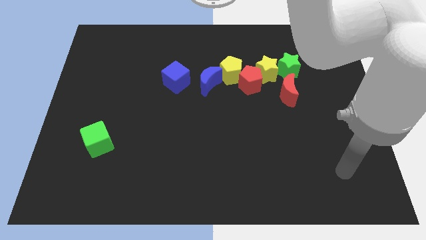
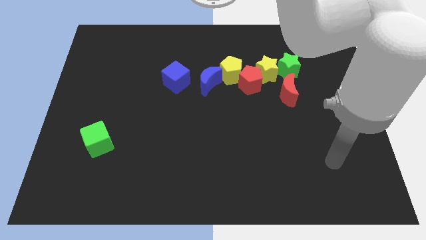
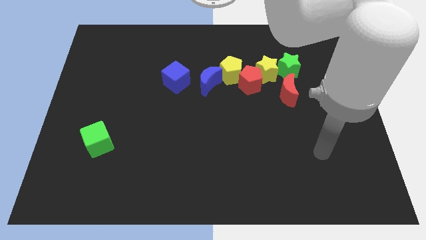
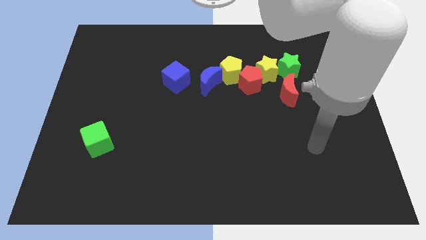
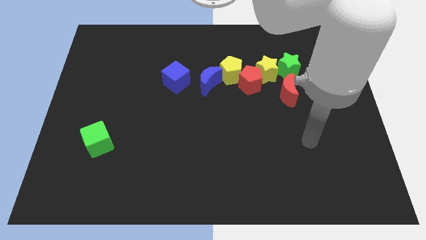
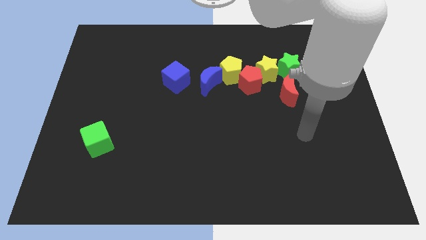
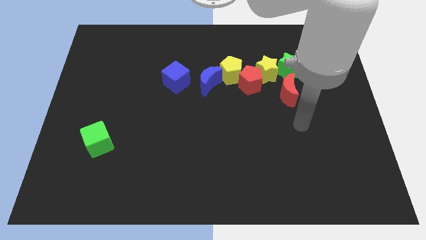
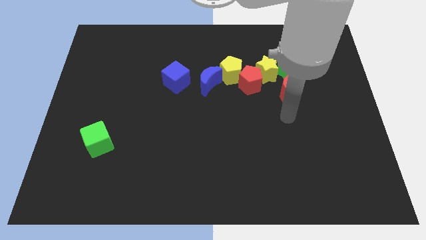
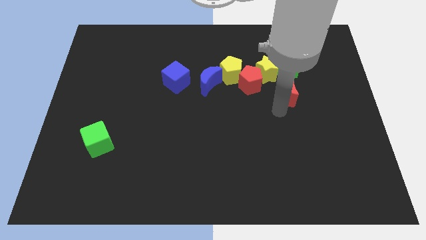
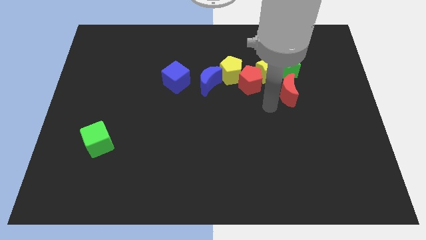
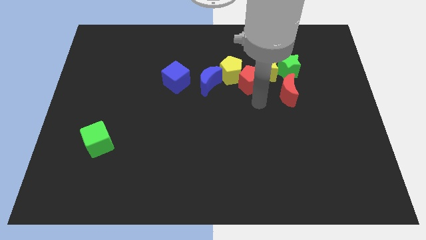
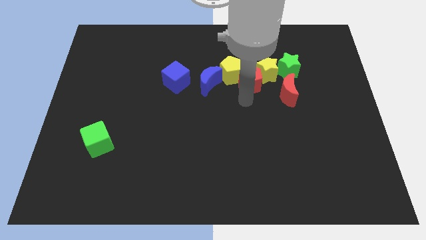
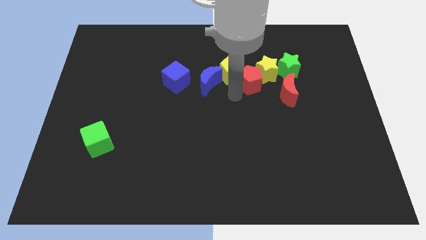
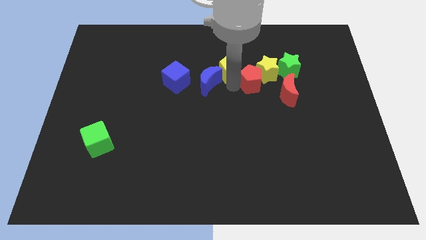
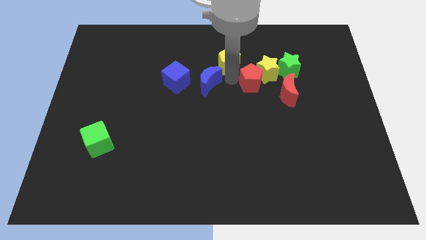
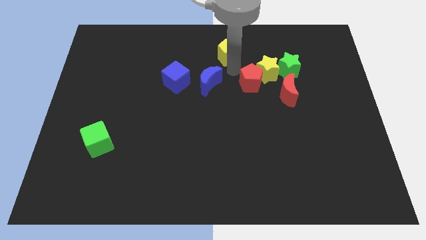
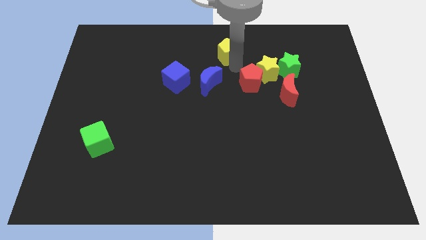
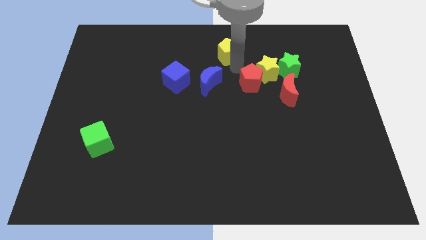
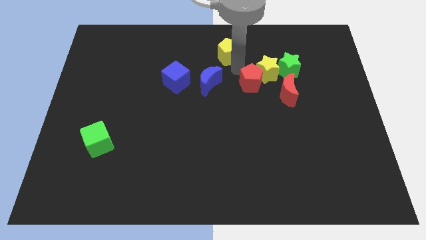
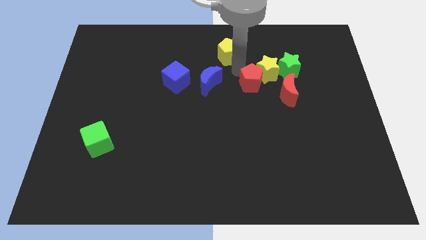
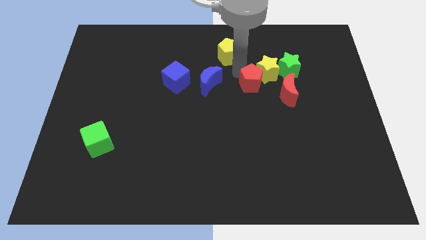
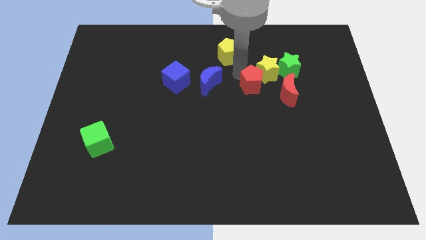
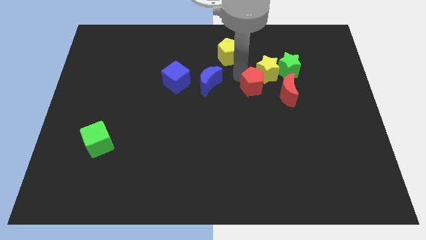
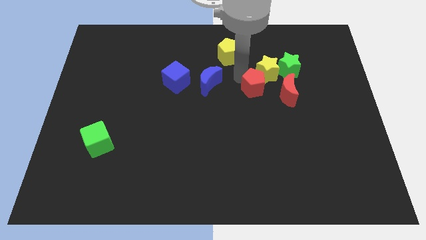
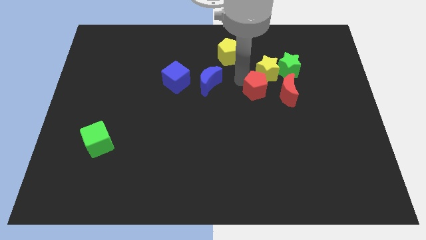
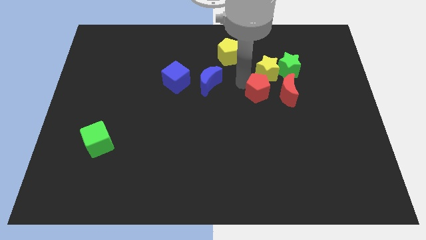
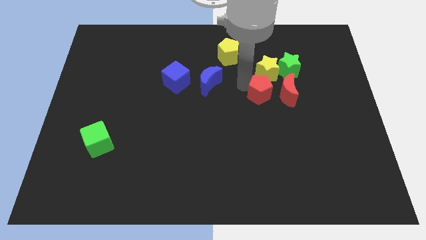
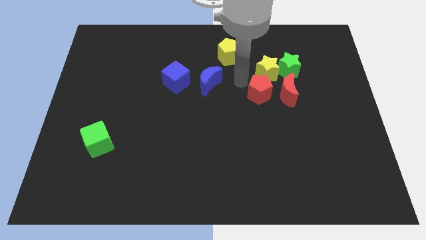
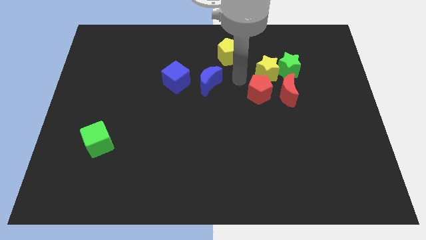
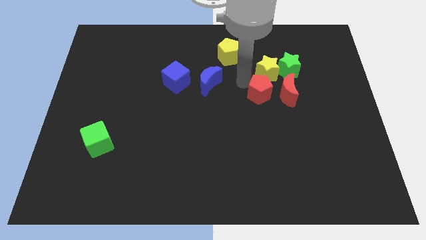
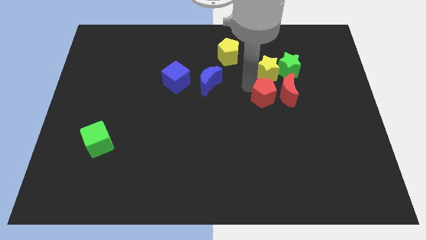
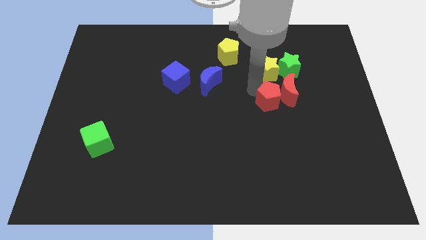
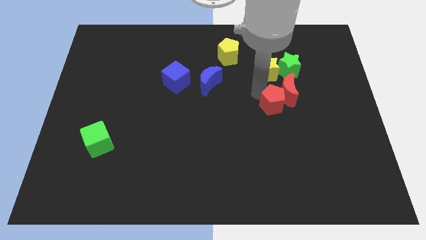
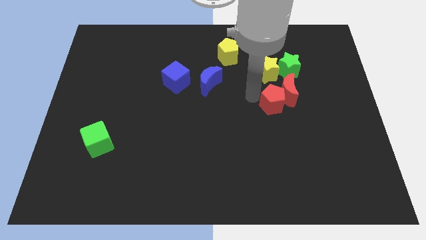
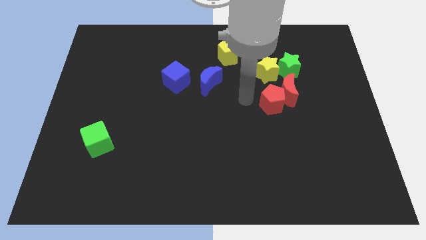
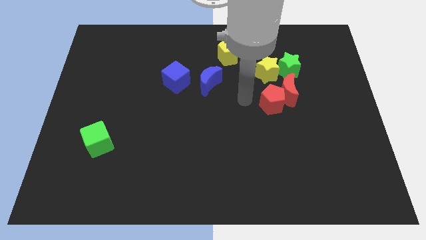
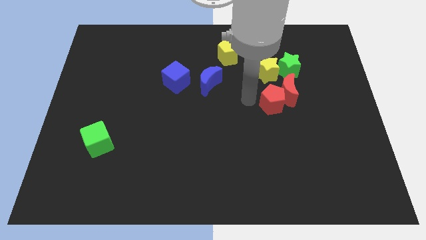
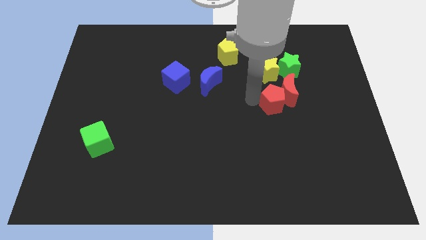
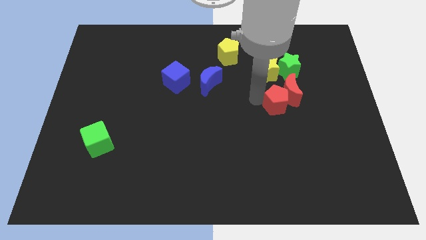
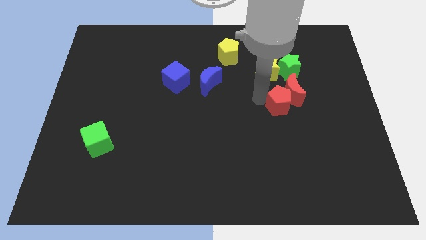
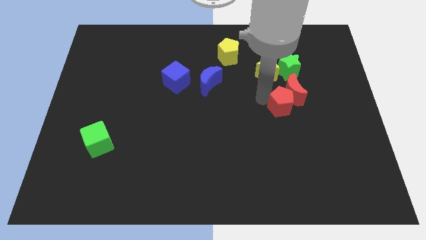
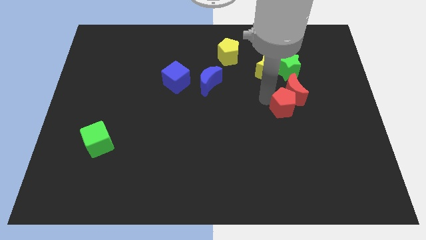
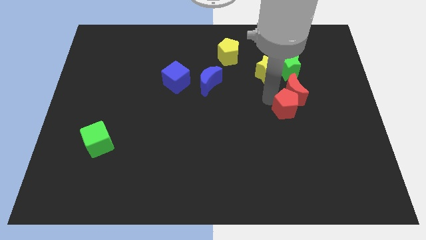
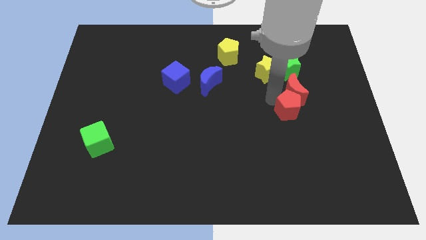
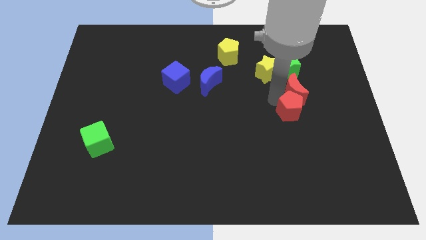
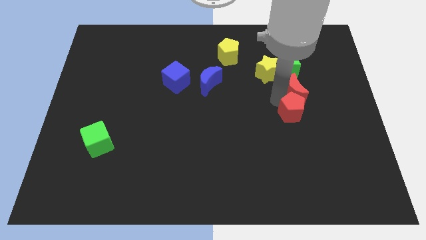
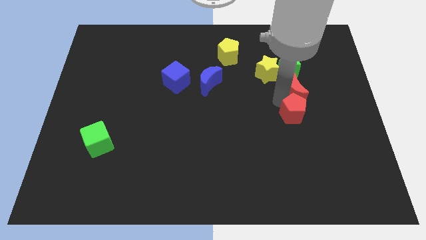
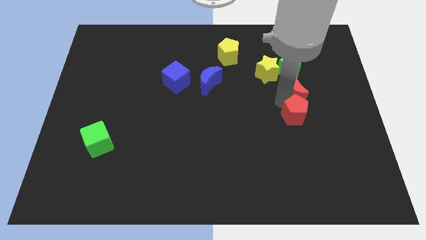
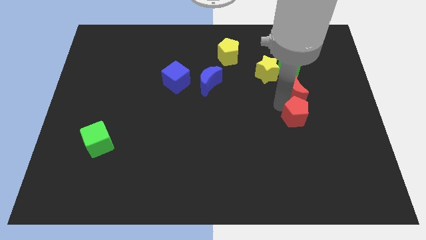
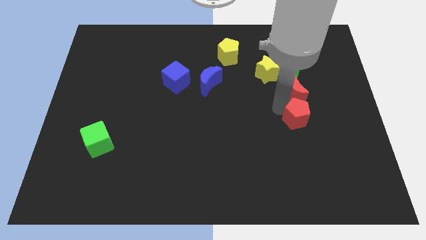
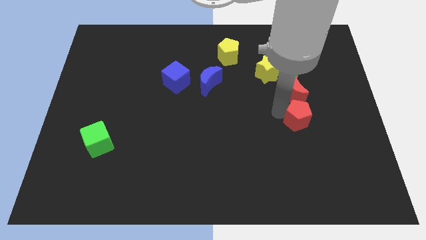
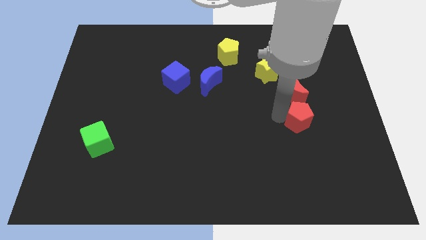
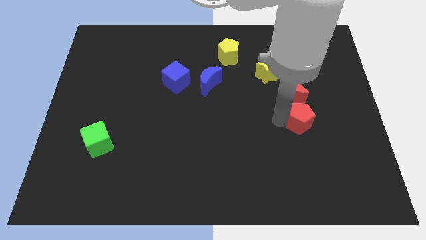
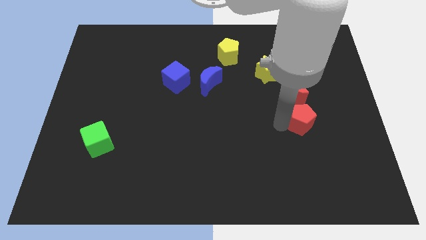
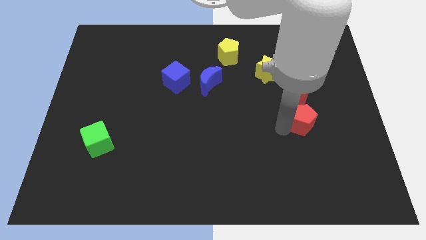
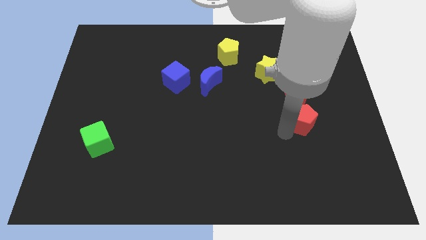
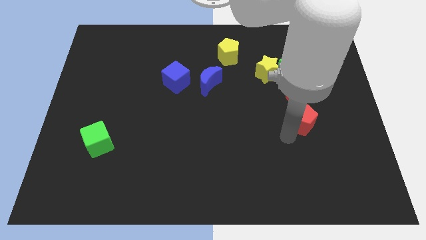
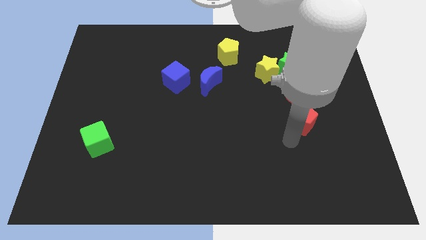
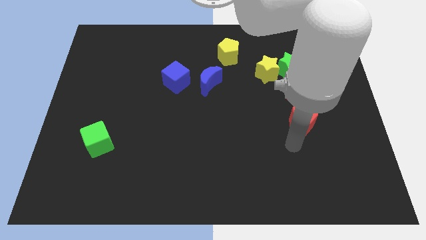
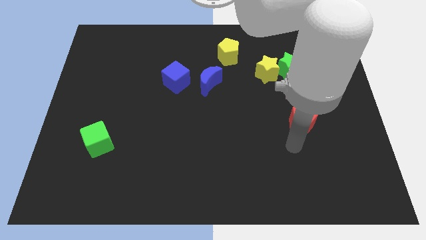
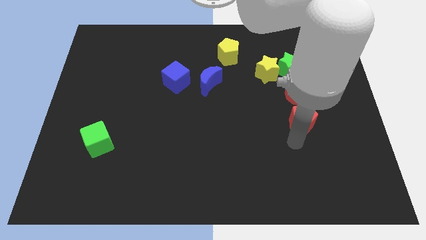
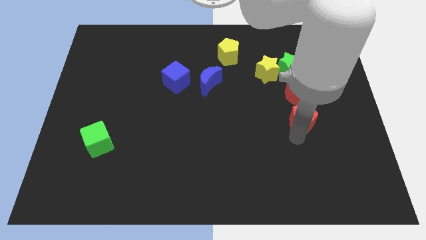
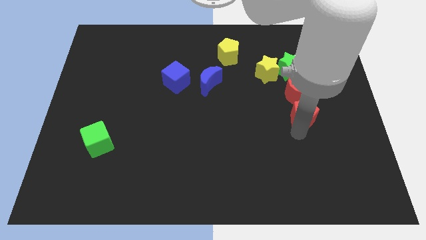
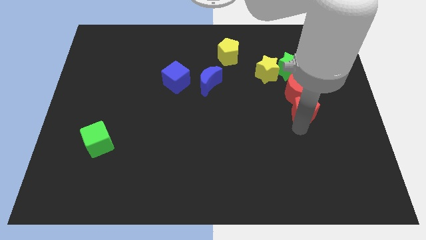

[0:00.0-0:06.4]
slightly move the red pentagon right

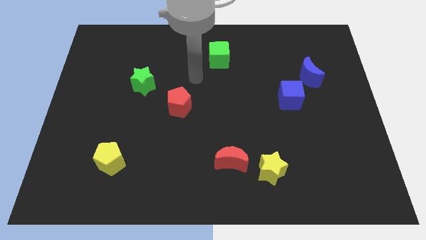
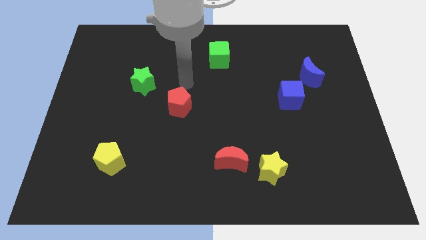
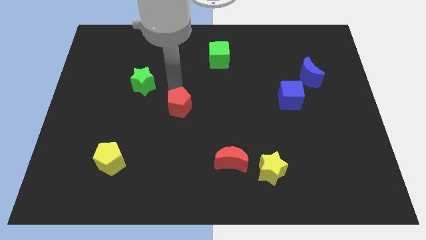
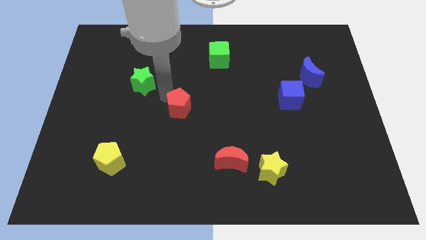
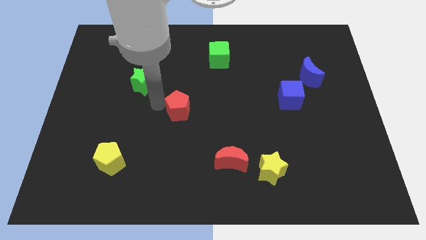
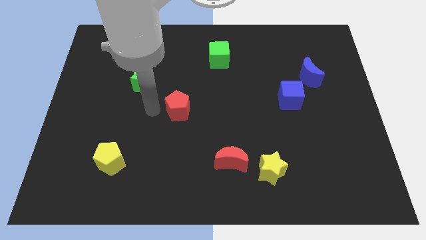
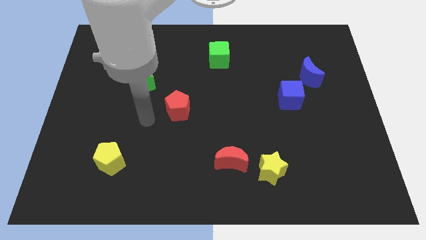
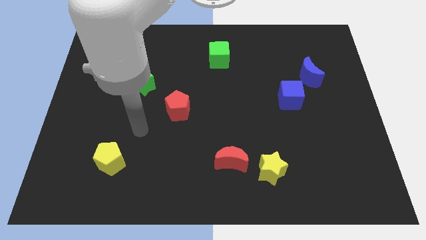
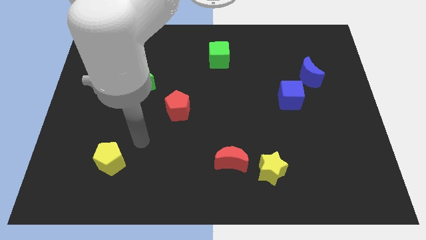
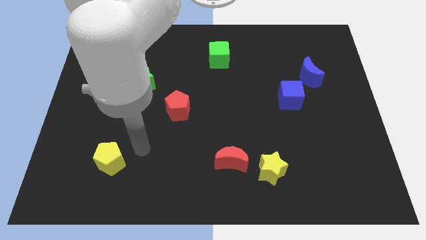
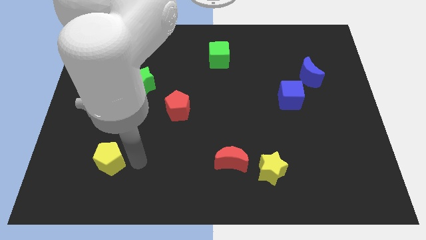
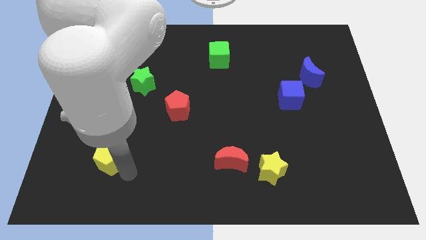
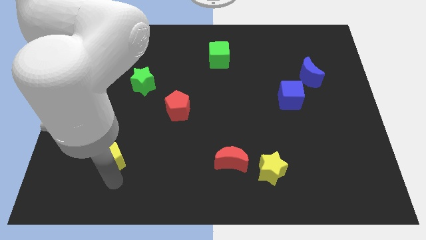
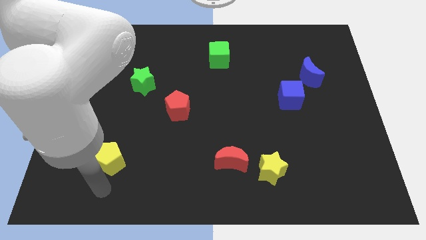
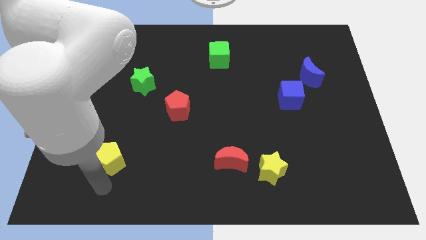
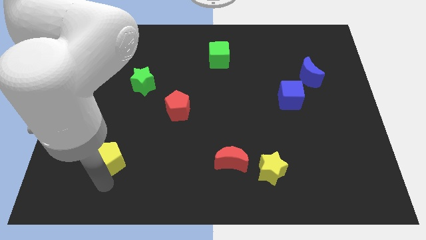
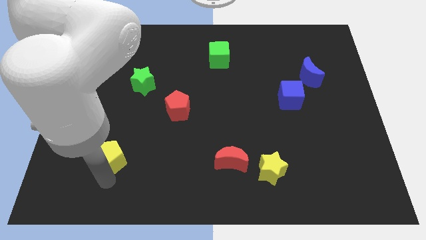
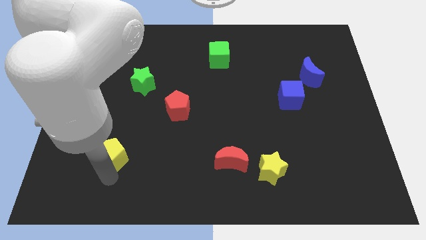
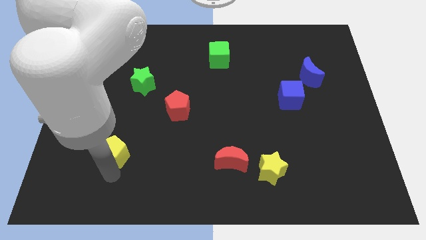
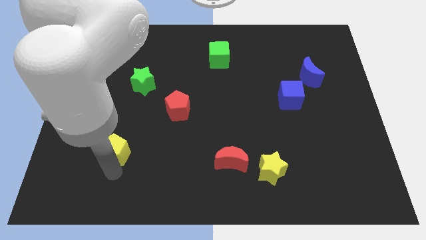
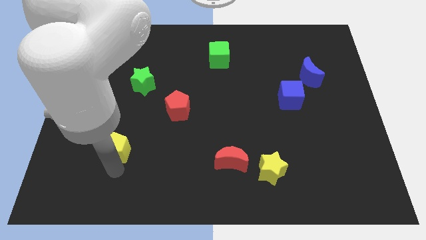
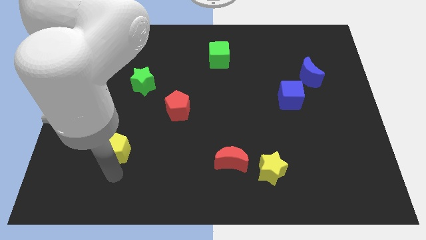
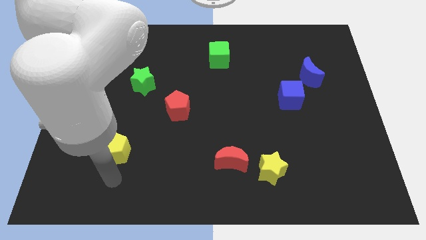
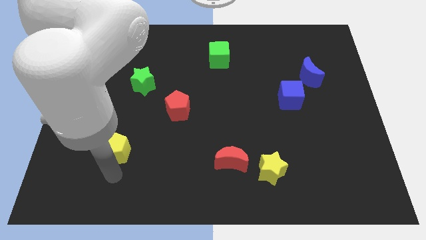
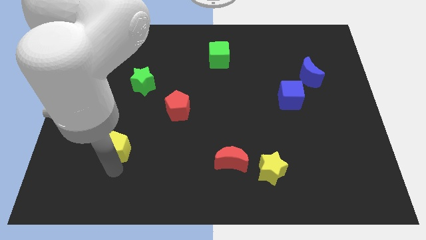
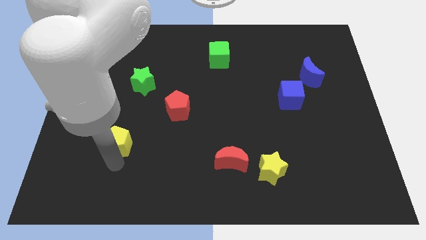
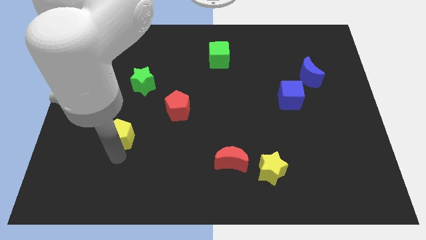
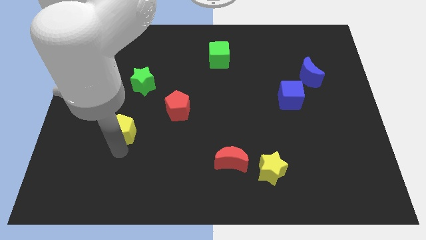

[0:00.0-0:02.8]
slightly slide the yellow pentagon up
